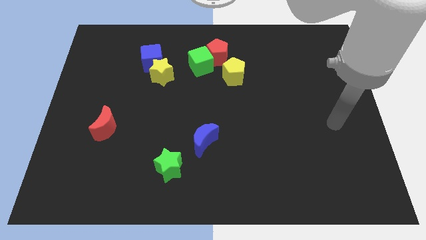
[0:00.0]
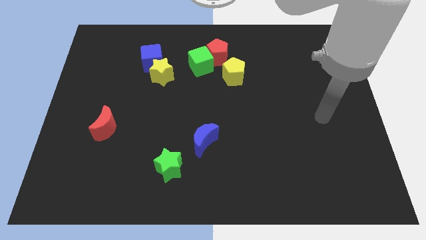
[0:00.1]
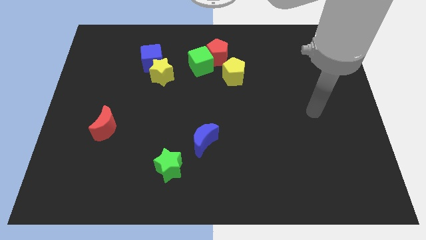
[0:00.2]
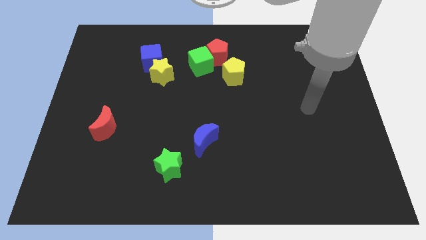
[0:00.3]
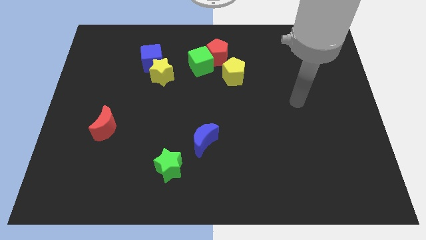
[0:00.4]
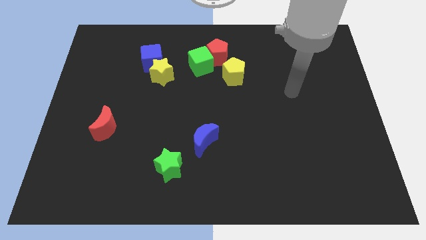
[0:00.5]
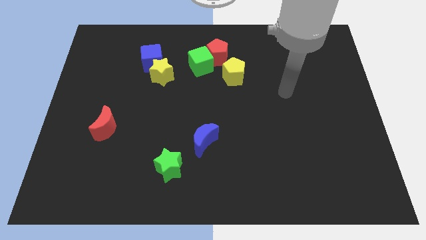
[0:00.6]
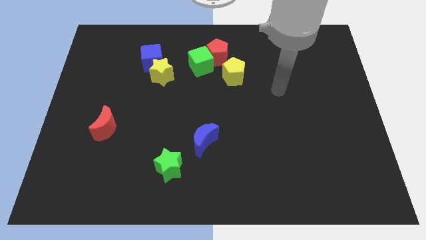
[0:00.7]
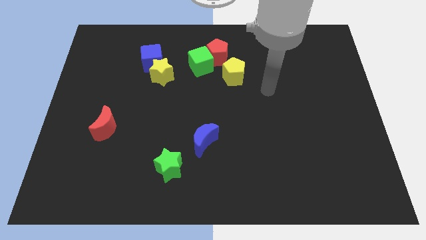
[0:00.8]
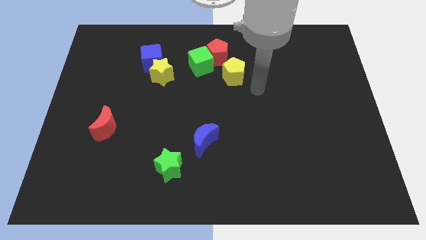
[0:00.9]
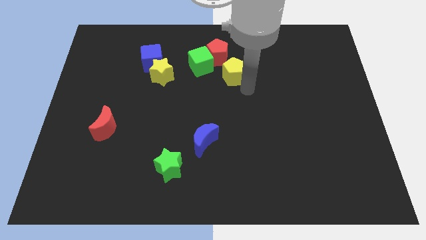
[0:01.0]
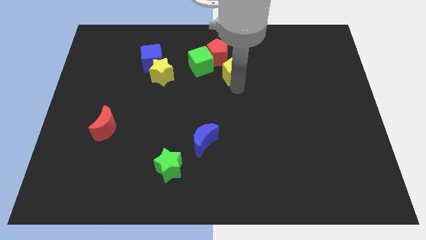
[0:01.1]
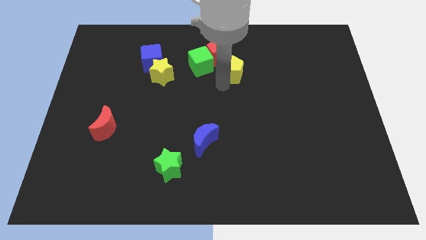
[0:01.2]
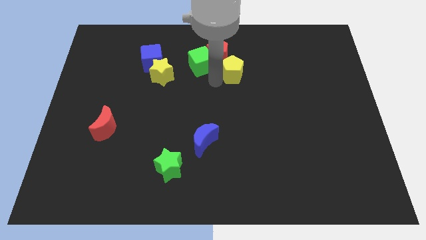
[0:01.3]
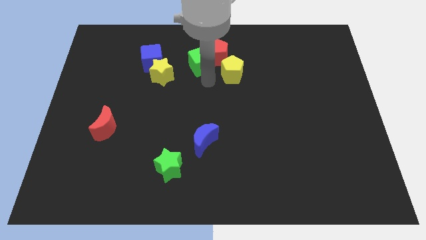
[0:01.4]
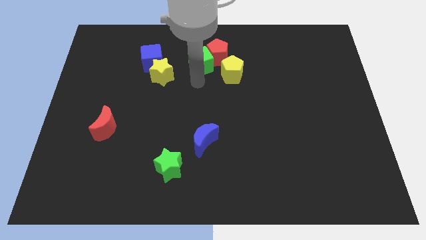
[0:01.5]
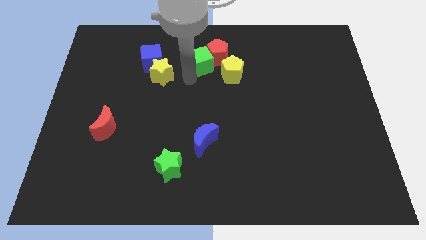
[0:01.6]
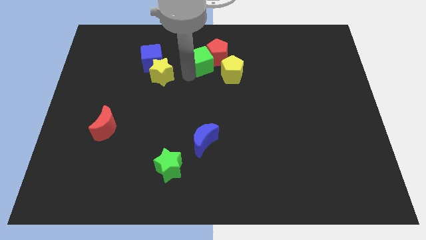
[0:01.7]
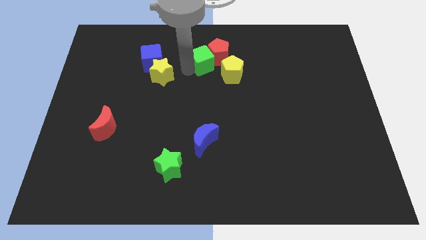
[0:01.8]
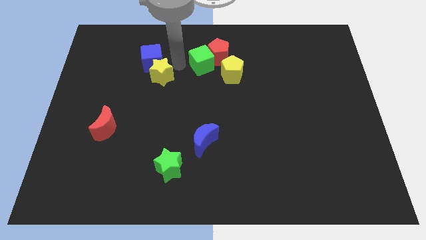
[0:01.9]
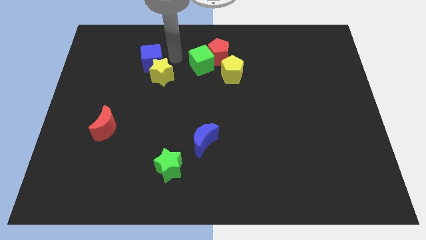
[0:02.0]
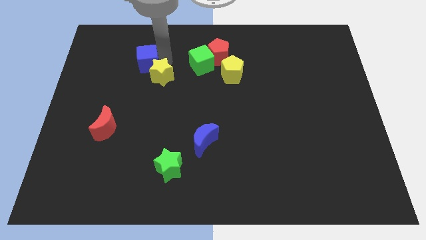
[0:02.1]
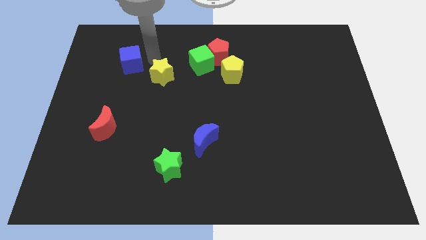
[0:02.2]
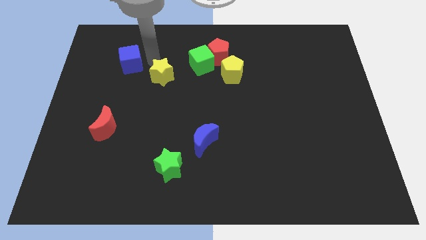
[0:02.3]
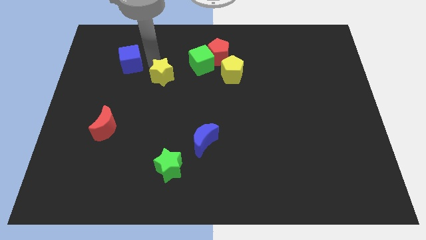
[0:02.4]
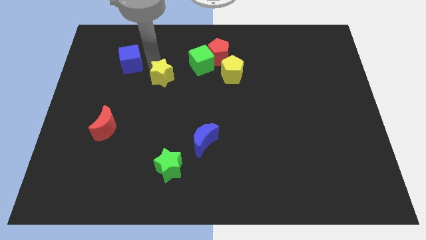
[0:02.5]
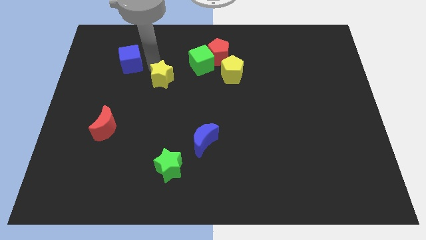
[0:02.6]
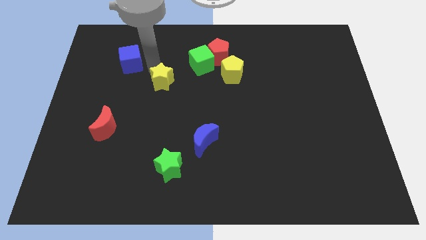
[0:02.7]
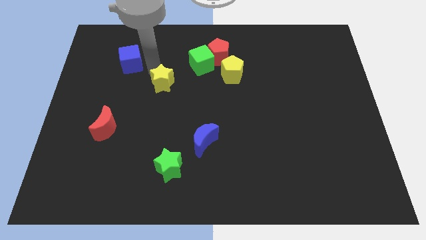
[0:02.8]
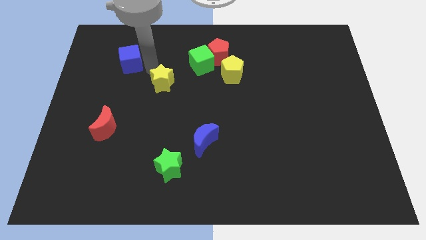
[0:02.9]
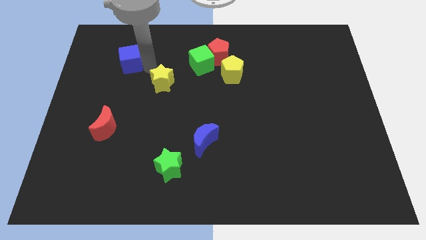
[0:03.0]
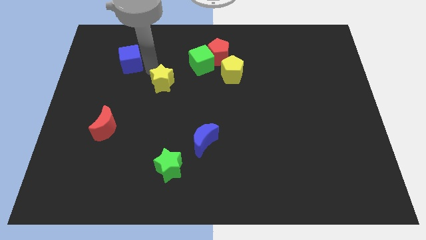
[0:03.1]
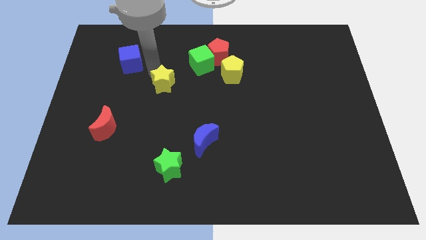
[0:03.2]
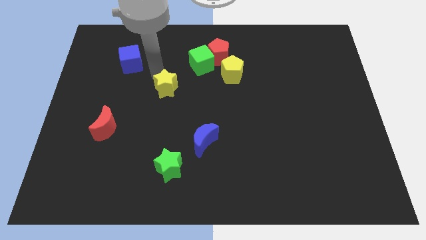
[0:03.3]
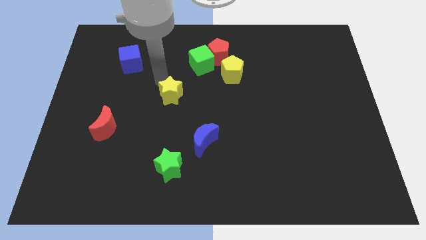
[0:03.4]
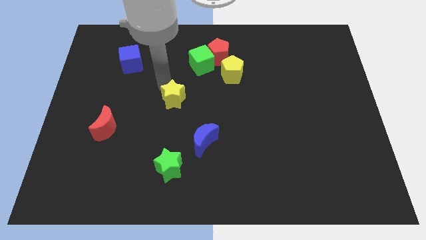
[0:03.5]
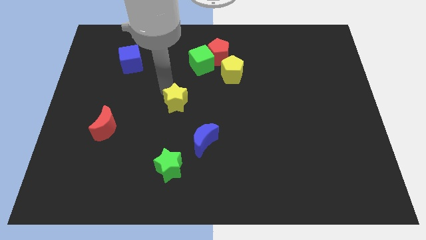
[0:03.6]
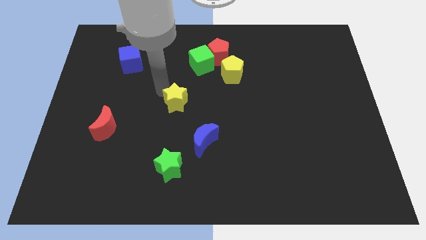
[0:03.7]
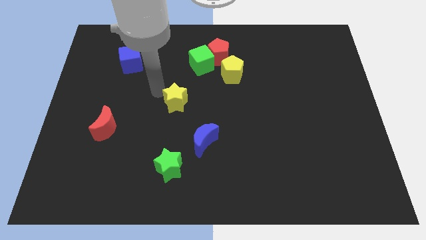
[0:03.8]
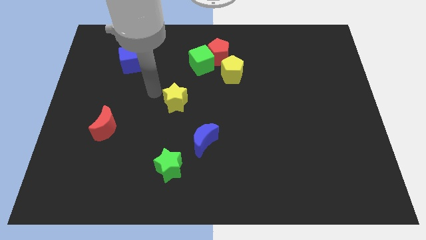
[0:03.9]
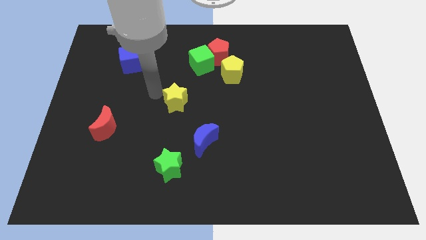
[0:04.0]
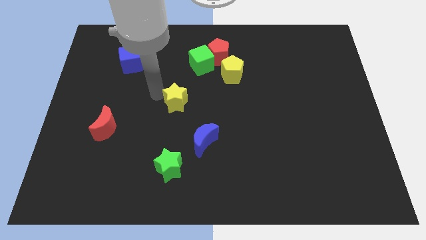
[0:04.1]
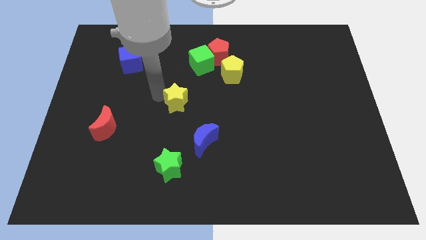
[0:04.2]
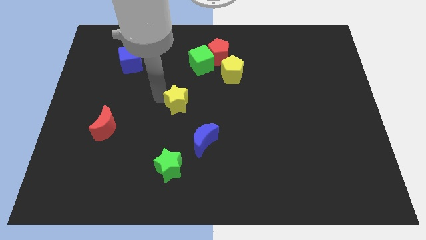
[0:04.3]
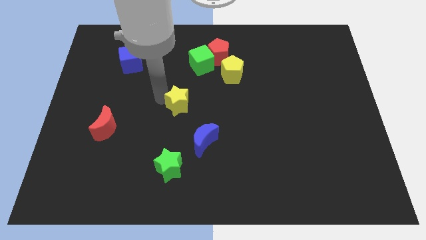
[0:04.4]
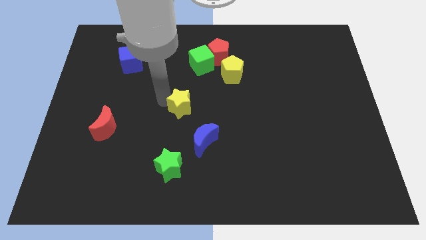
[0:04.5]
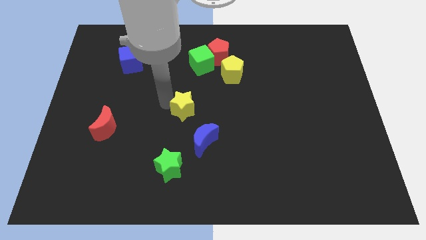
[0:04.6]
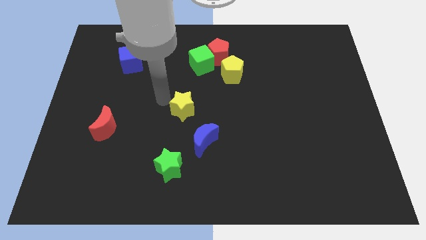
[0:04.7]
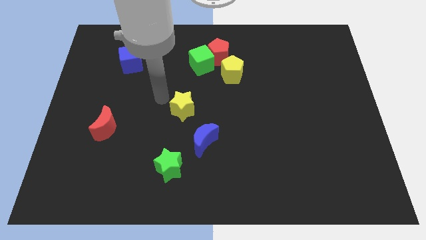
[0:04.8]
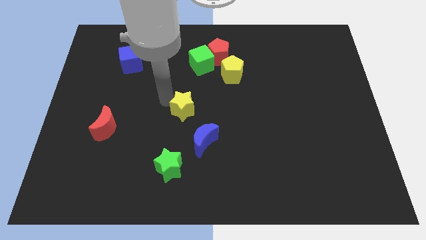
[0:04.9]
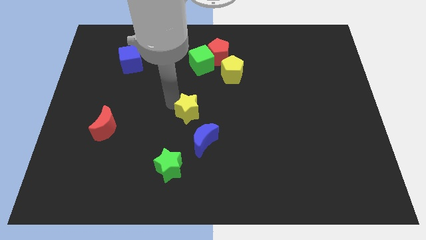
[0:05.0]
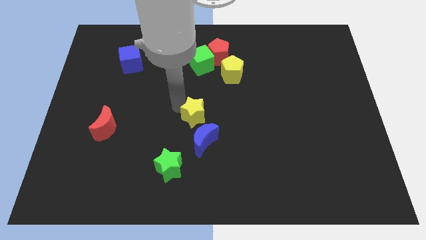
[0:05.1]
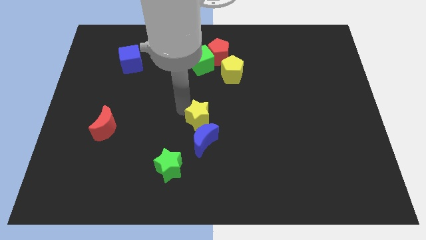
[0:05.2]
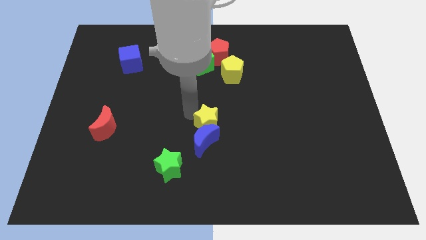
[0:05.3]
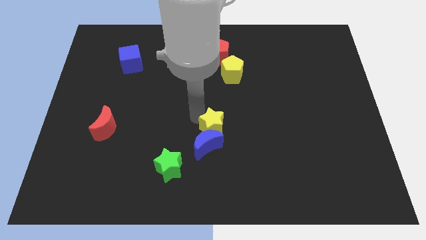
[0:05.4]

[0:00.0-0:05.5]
push the yellow star diagonally downwards and right

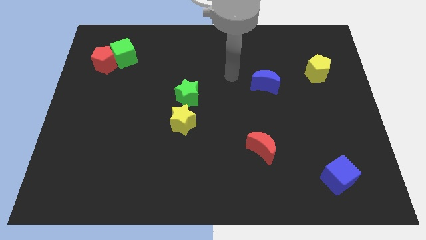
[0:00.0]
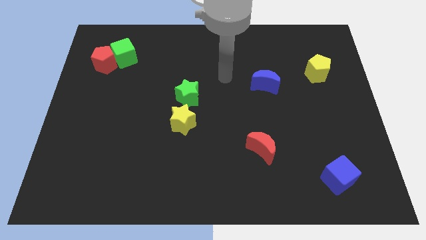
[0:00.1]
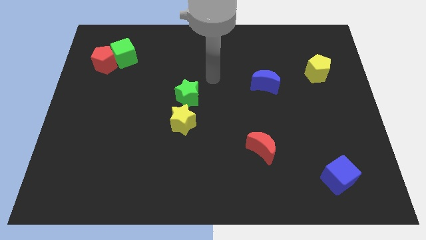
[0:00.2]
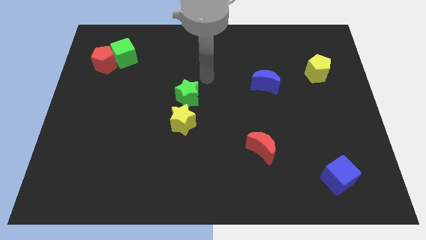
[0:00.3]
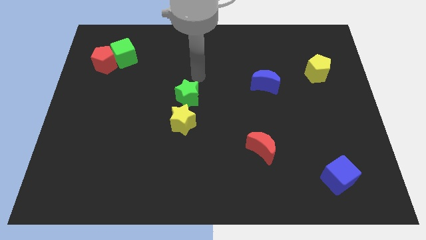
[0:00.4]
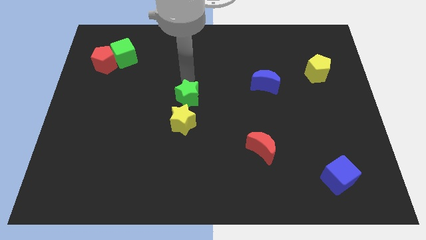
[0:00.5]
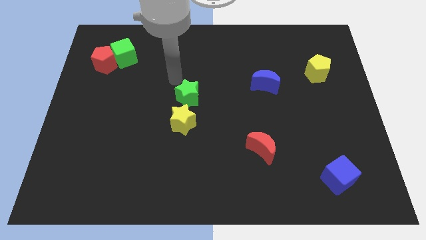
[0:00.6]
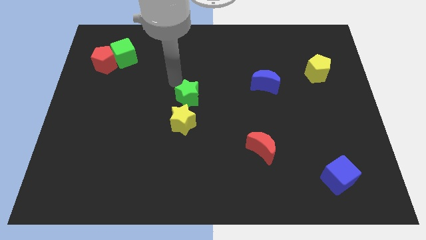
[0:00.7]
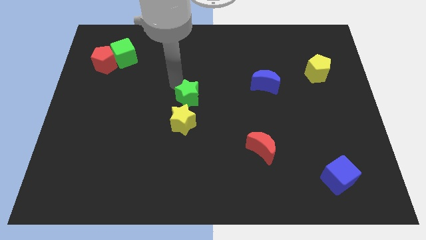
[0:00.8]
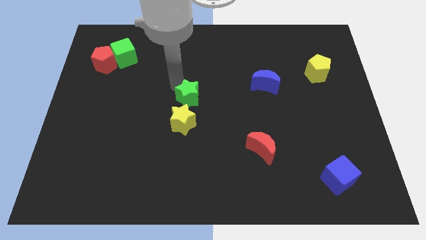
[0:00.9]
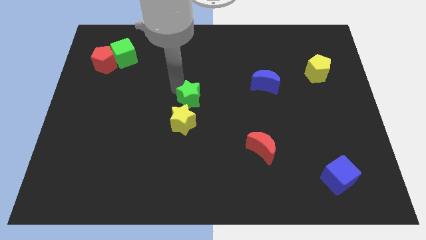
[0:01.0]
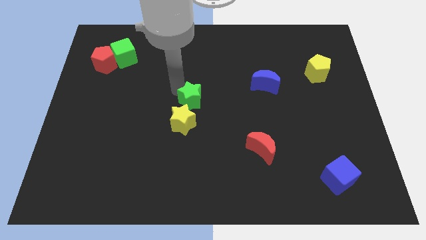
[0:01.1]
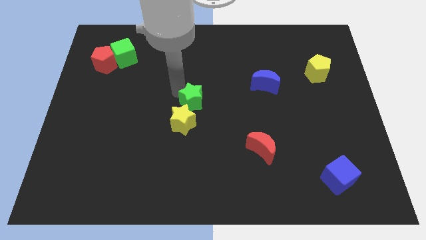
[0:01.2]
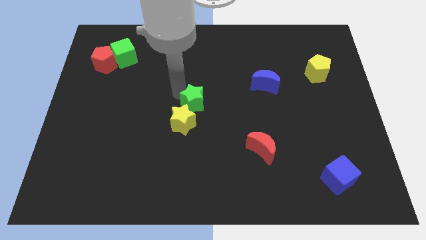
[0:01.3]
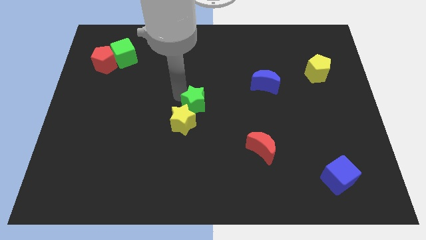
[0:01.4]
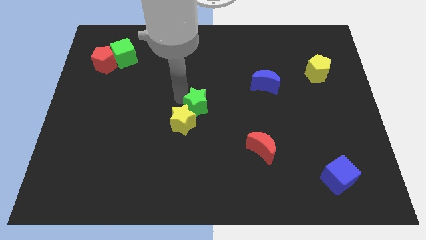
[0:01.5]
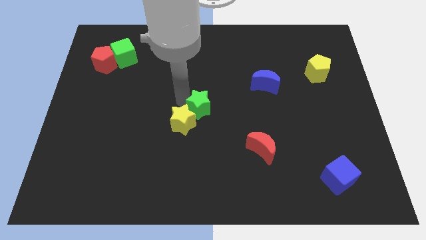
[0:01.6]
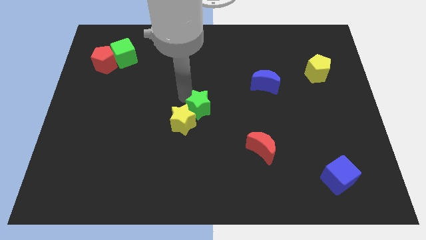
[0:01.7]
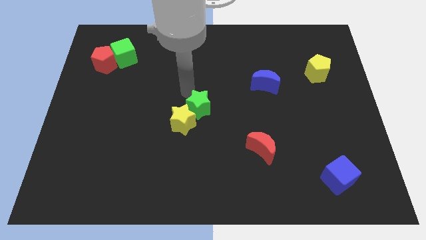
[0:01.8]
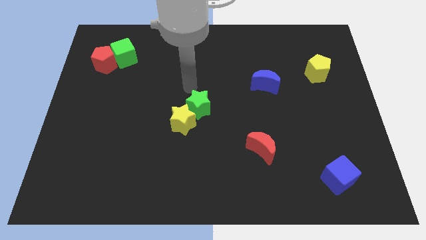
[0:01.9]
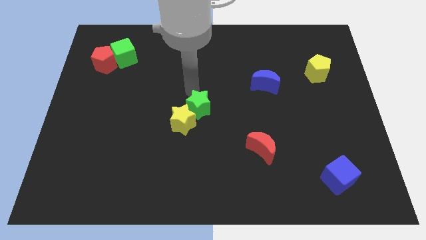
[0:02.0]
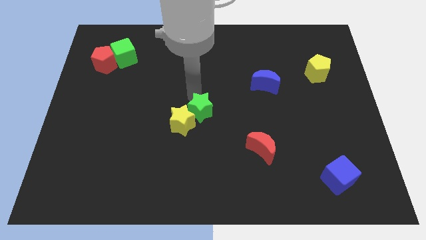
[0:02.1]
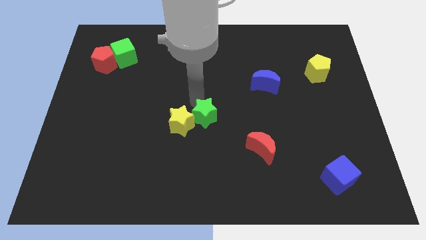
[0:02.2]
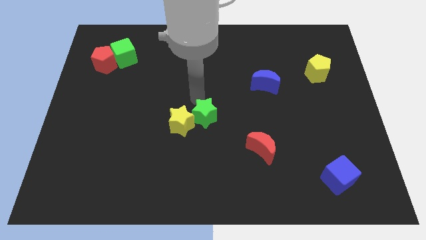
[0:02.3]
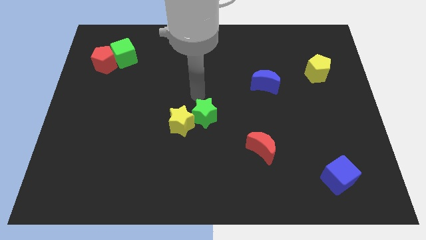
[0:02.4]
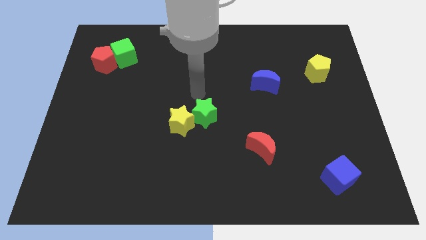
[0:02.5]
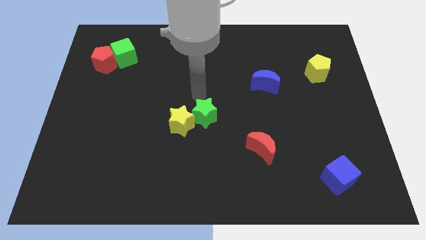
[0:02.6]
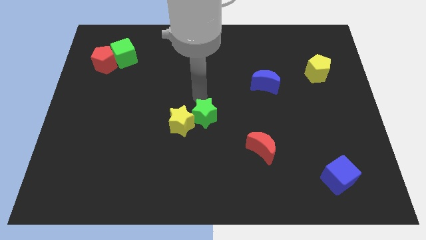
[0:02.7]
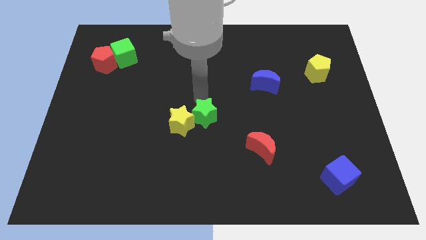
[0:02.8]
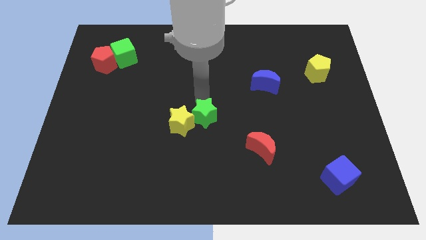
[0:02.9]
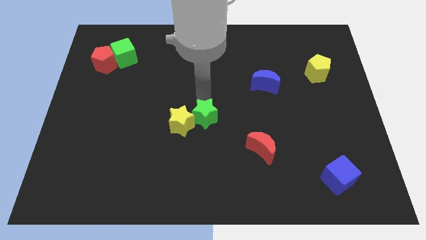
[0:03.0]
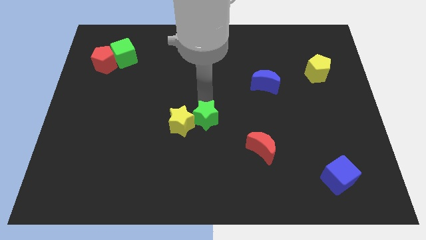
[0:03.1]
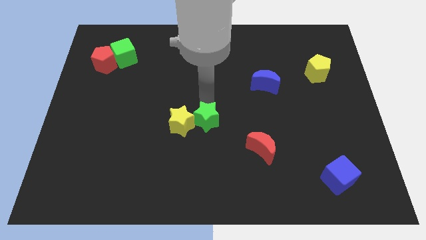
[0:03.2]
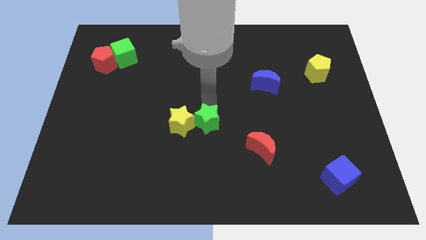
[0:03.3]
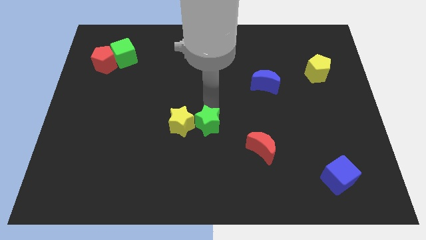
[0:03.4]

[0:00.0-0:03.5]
move the green star downwards slightly
